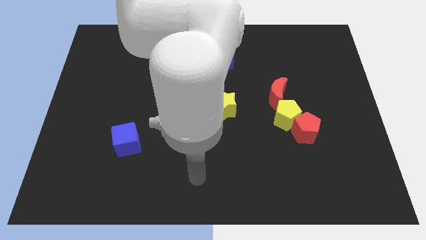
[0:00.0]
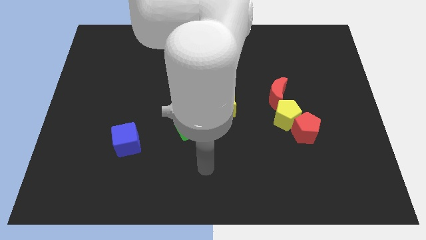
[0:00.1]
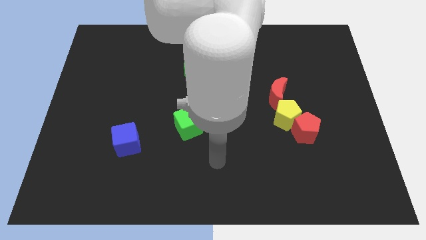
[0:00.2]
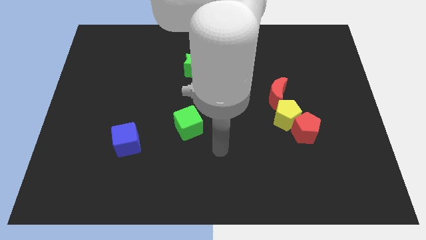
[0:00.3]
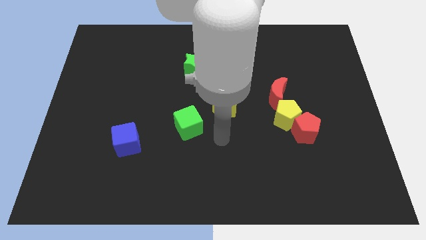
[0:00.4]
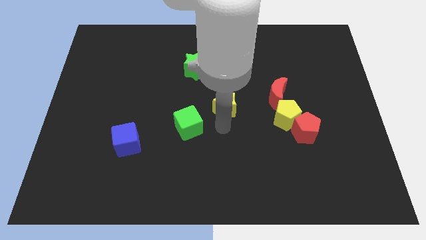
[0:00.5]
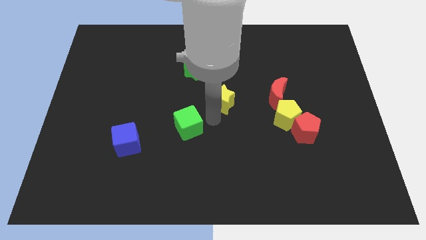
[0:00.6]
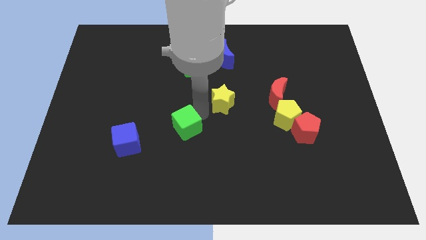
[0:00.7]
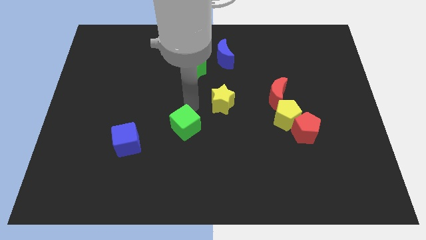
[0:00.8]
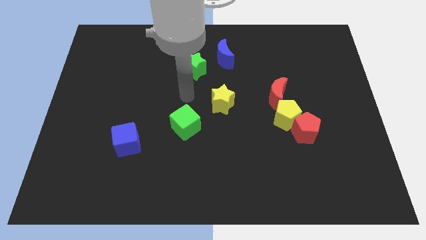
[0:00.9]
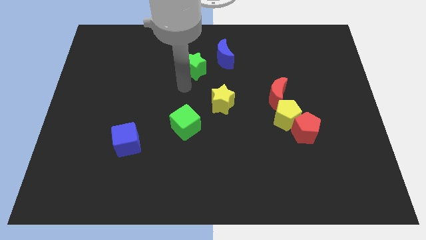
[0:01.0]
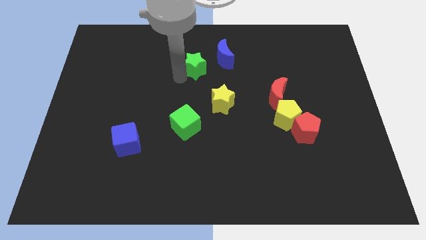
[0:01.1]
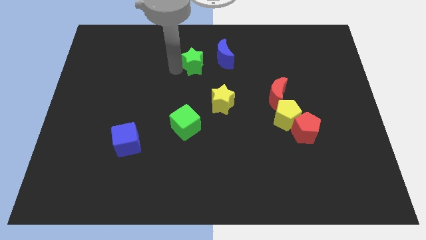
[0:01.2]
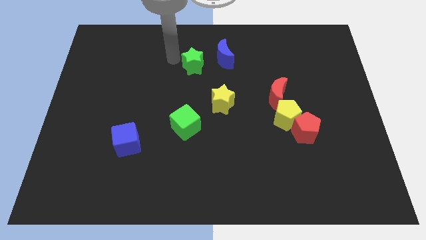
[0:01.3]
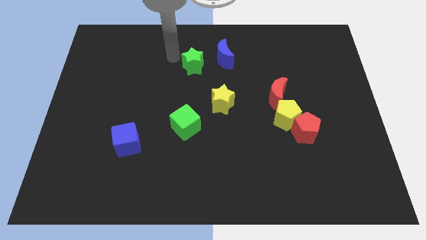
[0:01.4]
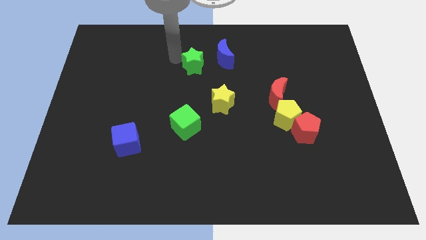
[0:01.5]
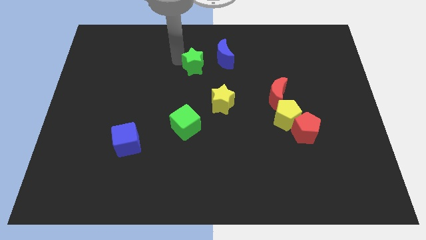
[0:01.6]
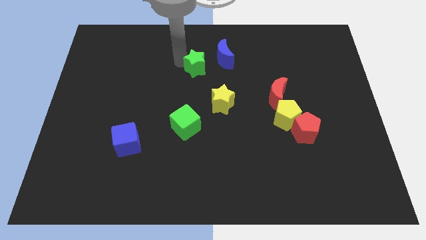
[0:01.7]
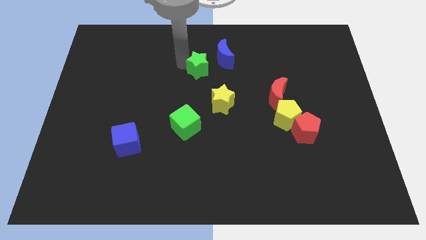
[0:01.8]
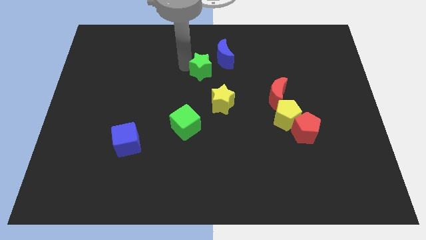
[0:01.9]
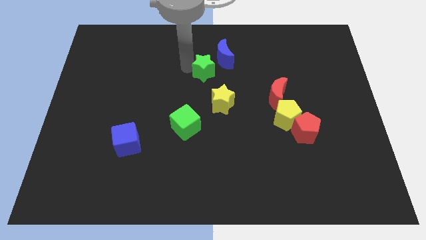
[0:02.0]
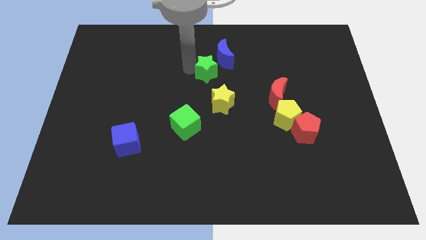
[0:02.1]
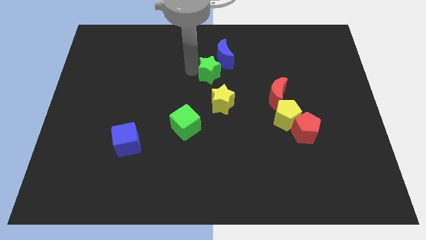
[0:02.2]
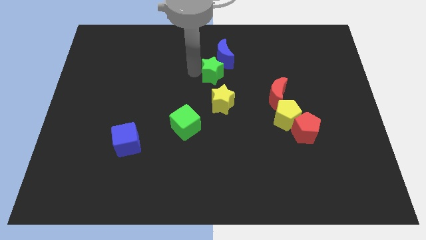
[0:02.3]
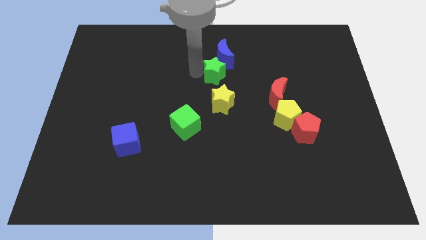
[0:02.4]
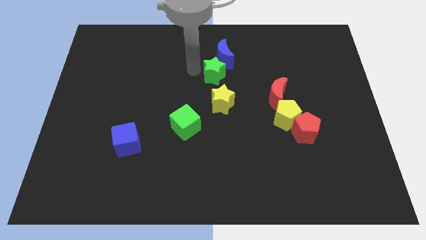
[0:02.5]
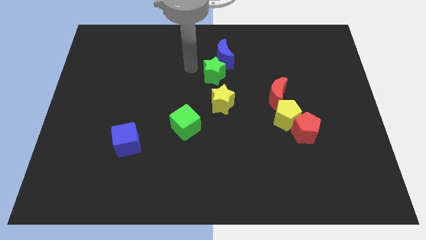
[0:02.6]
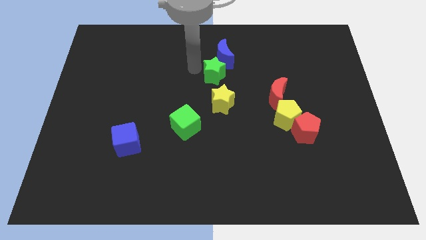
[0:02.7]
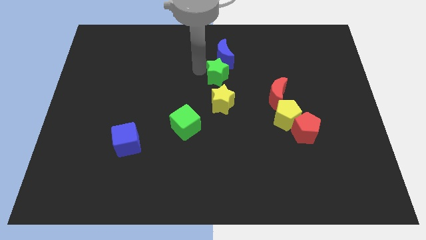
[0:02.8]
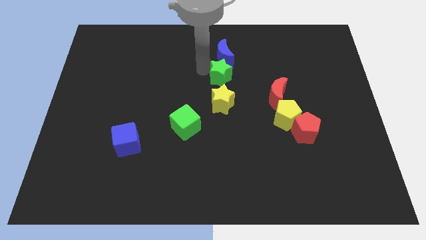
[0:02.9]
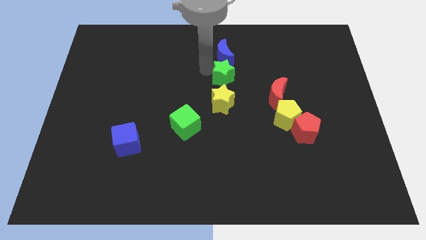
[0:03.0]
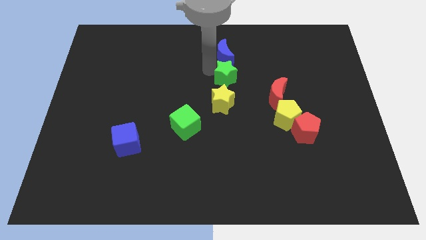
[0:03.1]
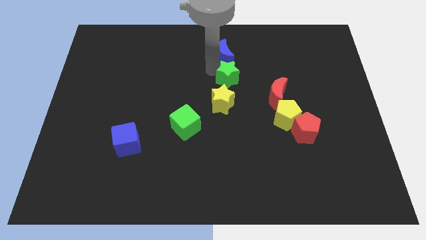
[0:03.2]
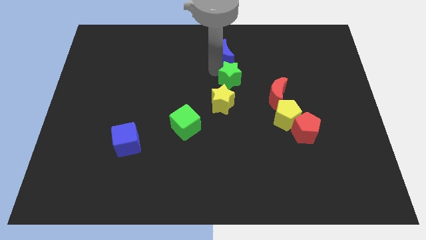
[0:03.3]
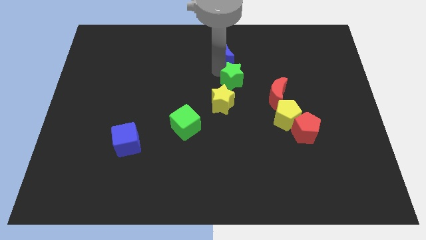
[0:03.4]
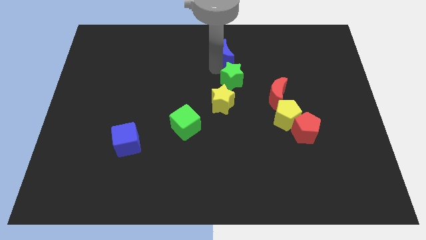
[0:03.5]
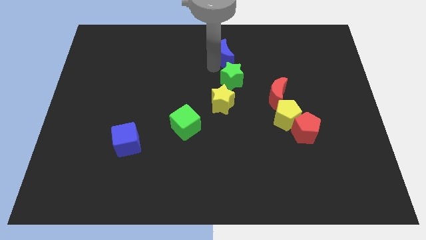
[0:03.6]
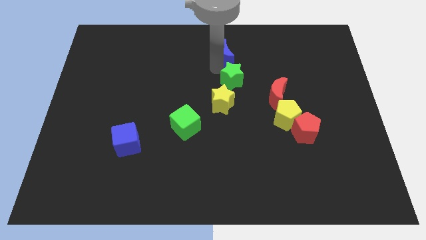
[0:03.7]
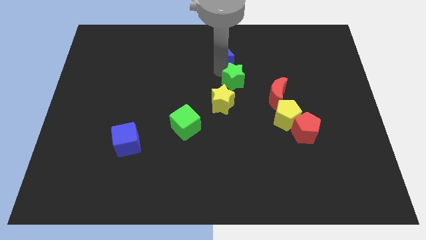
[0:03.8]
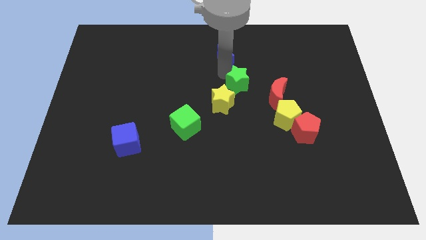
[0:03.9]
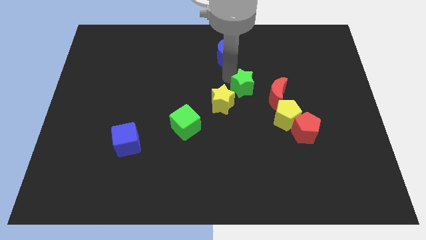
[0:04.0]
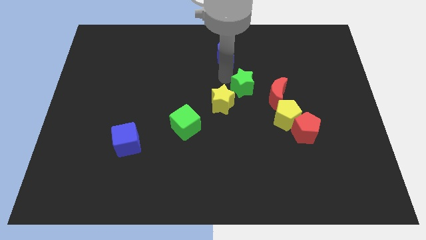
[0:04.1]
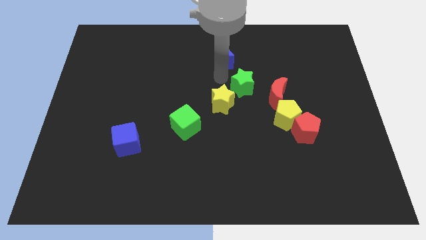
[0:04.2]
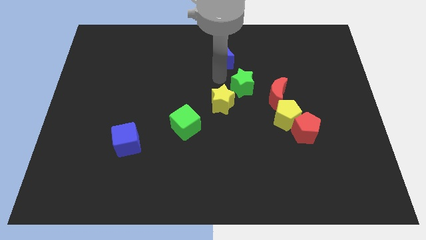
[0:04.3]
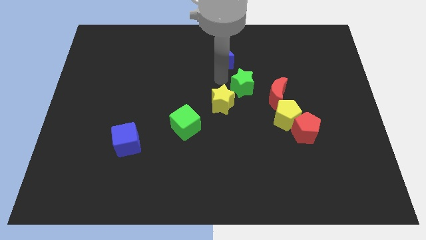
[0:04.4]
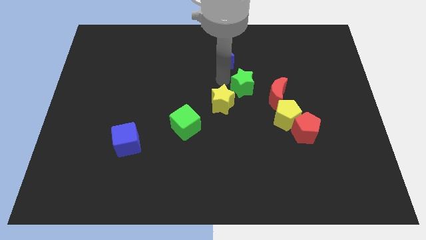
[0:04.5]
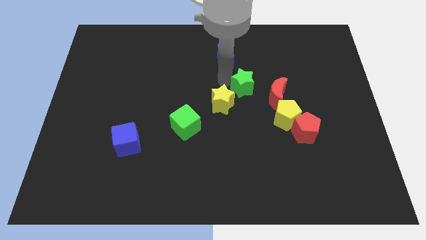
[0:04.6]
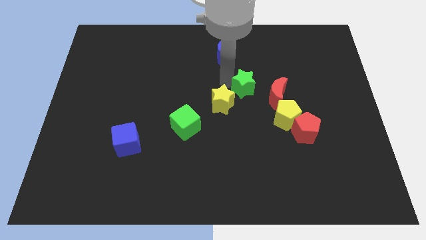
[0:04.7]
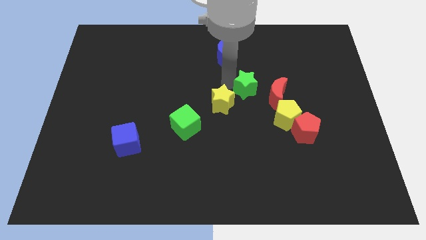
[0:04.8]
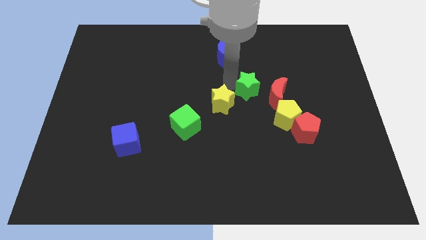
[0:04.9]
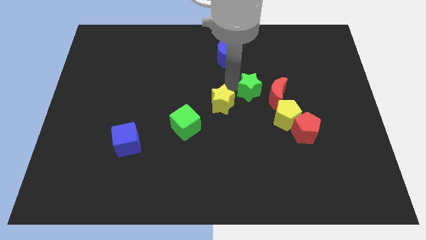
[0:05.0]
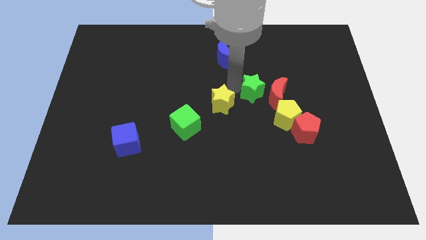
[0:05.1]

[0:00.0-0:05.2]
move the green star next to the red moon

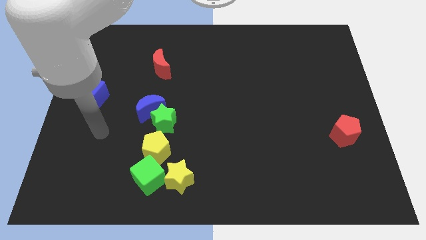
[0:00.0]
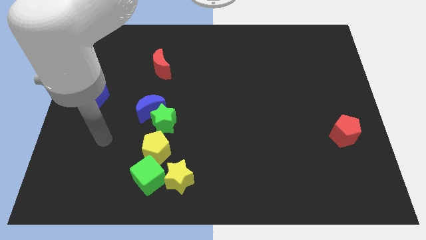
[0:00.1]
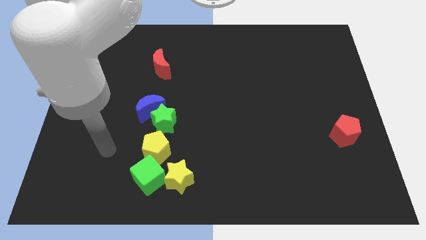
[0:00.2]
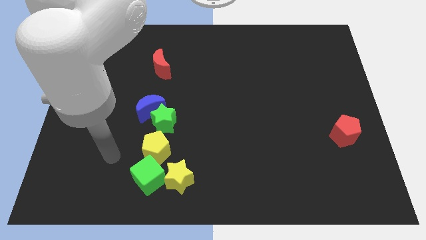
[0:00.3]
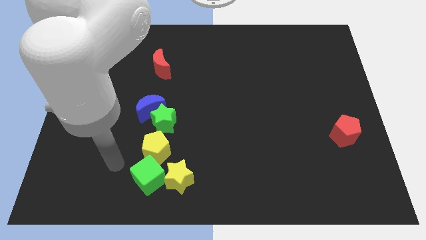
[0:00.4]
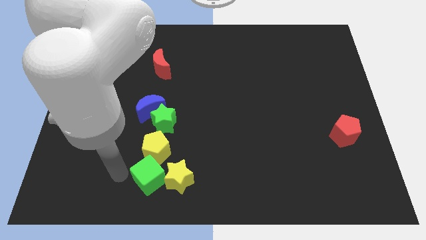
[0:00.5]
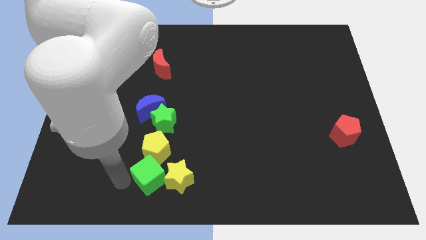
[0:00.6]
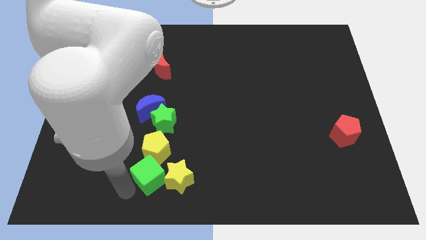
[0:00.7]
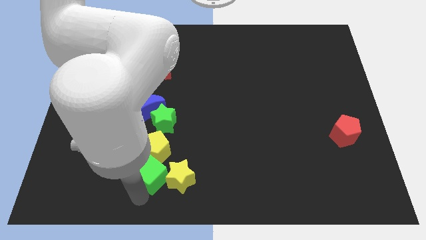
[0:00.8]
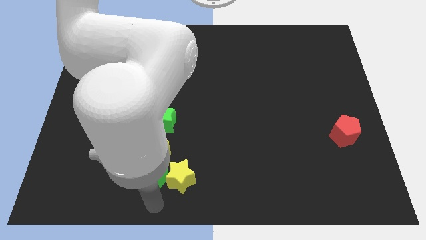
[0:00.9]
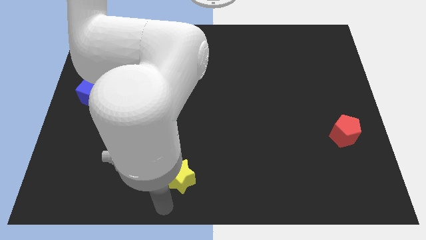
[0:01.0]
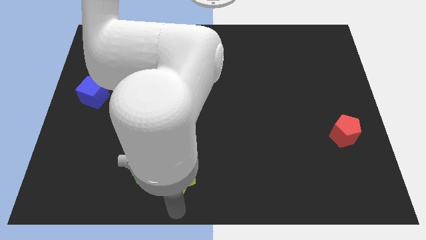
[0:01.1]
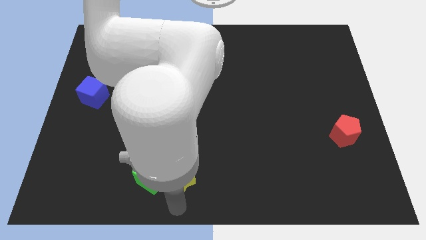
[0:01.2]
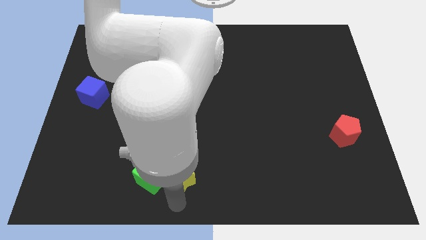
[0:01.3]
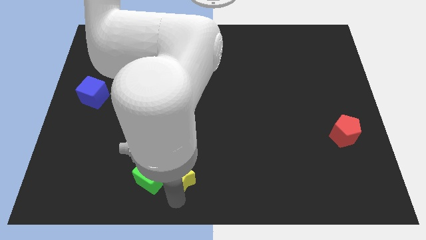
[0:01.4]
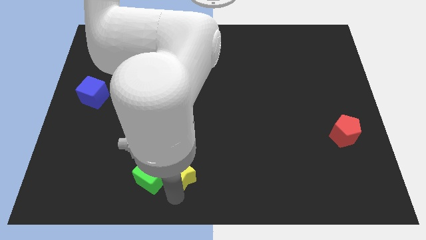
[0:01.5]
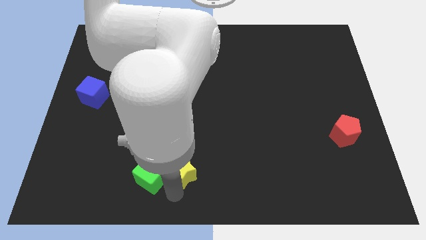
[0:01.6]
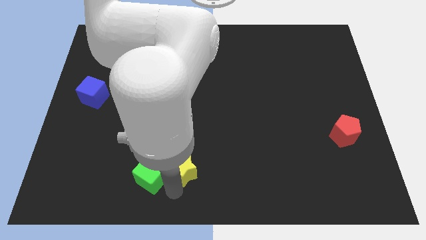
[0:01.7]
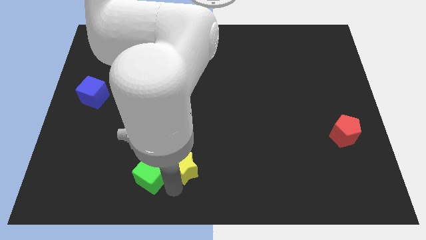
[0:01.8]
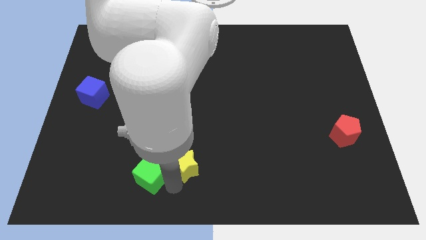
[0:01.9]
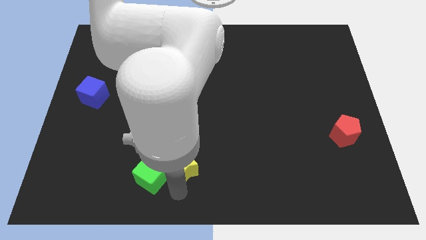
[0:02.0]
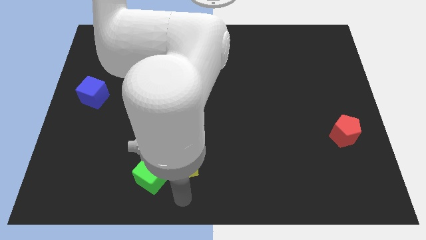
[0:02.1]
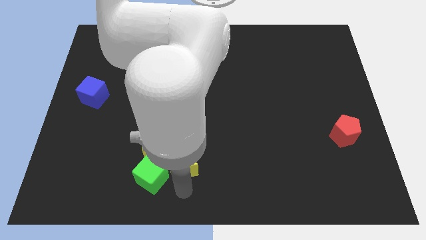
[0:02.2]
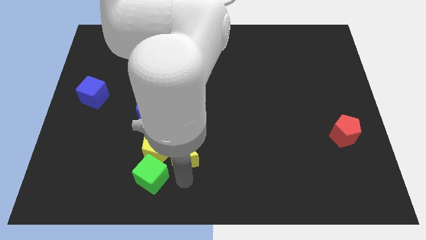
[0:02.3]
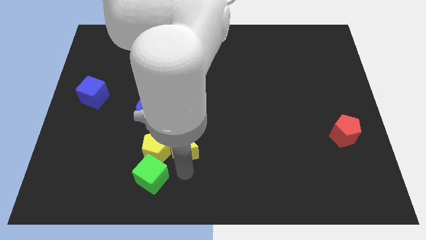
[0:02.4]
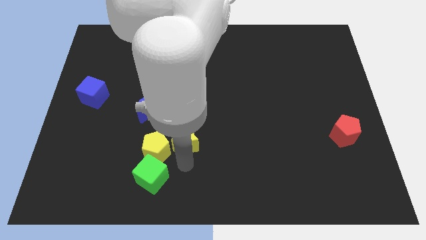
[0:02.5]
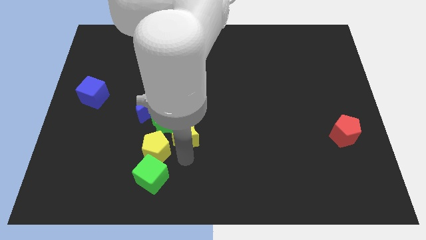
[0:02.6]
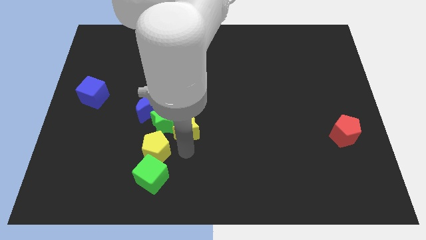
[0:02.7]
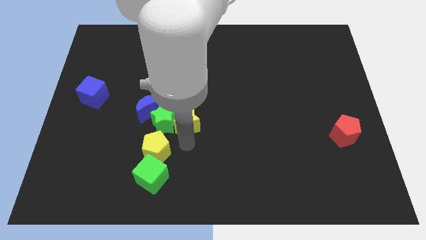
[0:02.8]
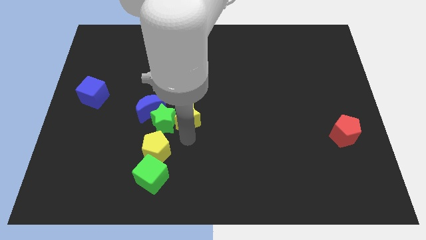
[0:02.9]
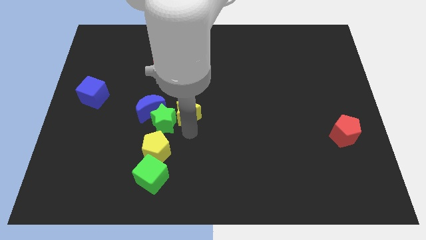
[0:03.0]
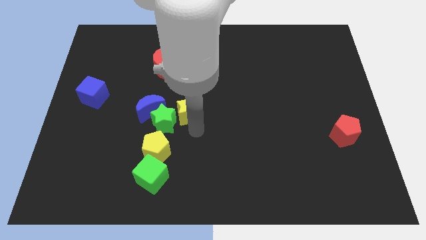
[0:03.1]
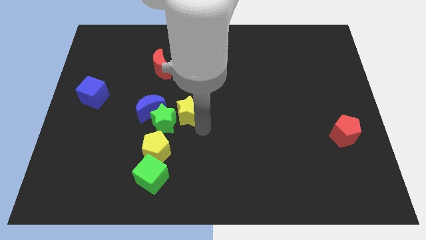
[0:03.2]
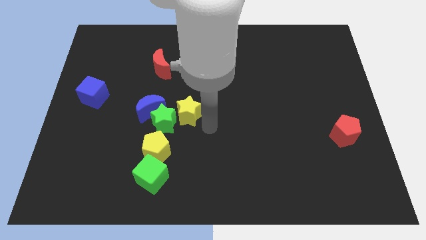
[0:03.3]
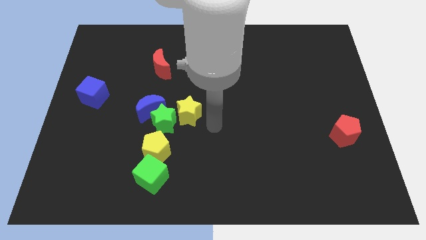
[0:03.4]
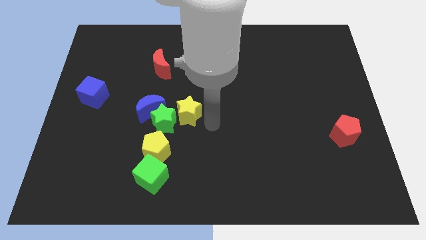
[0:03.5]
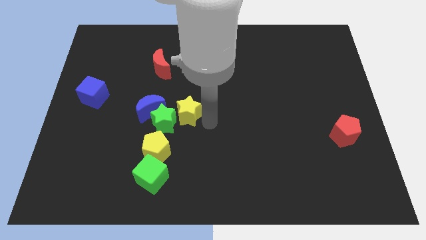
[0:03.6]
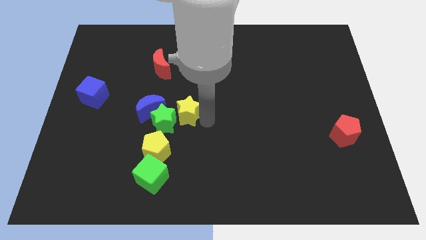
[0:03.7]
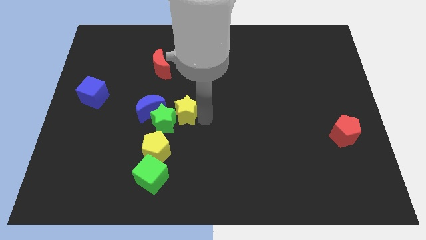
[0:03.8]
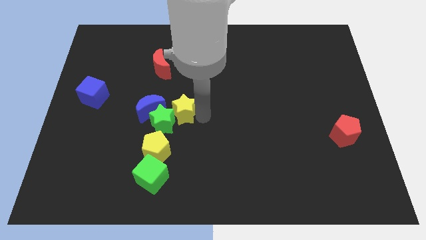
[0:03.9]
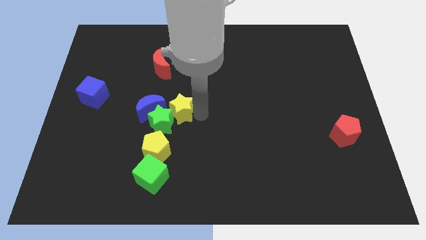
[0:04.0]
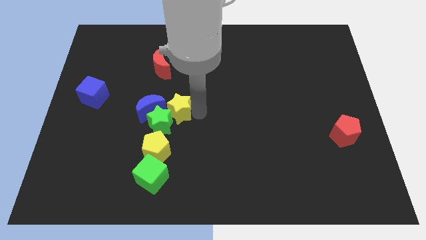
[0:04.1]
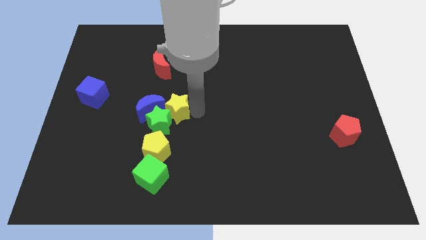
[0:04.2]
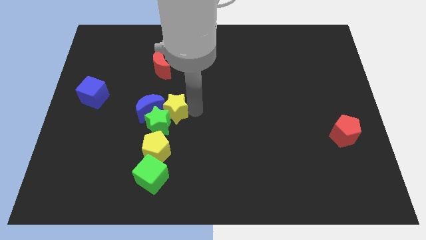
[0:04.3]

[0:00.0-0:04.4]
push the yellow star to the blue moon
